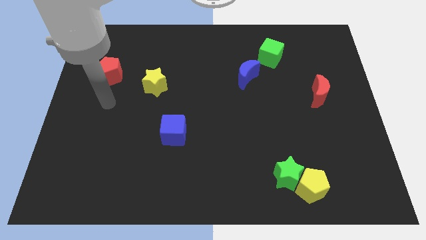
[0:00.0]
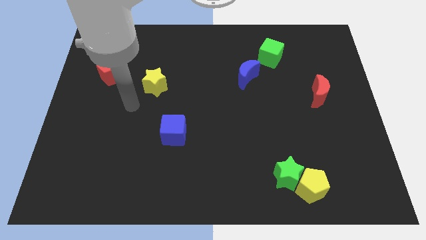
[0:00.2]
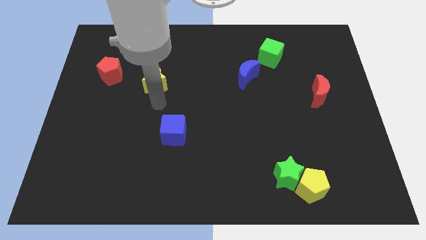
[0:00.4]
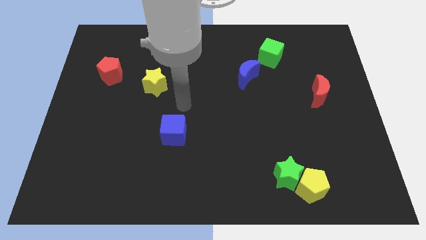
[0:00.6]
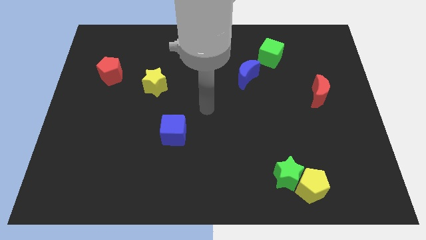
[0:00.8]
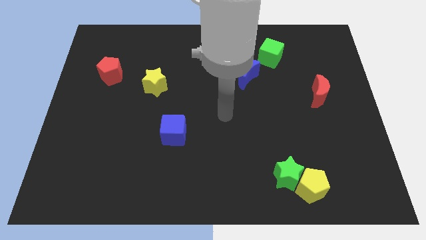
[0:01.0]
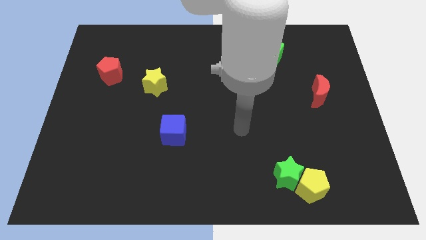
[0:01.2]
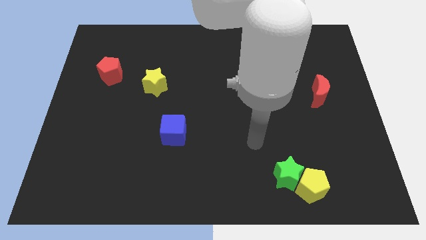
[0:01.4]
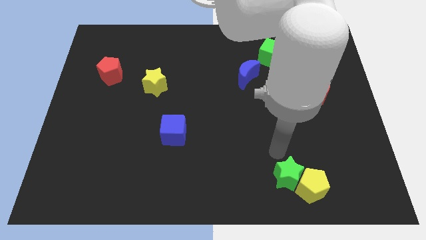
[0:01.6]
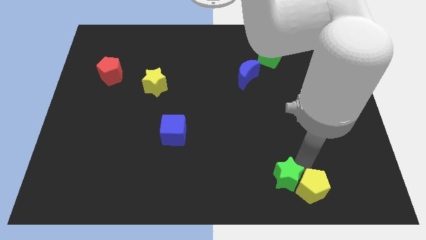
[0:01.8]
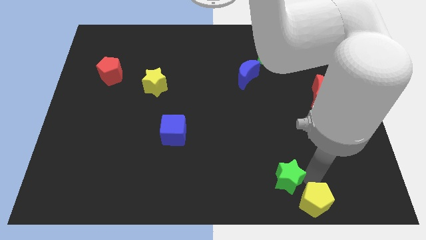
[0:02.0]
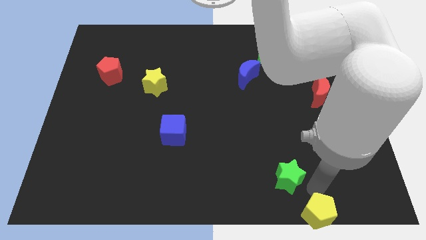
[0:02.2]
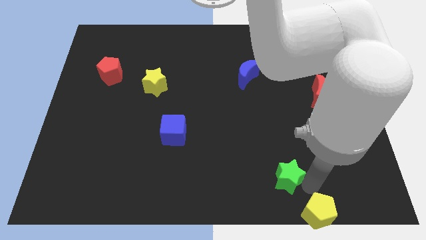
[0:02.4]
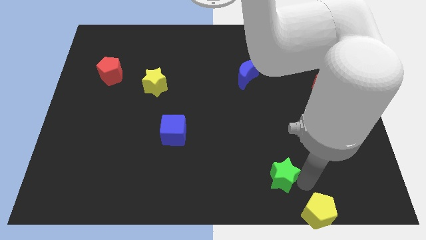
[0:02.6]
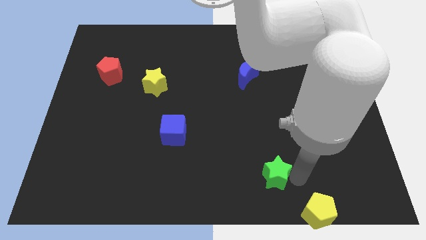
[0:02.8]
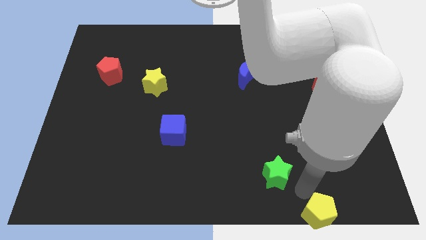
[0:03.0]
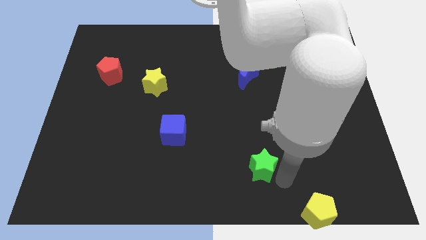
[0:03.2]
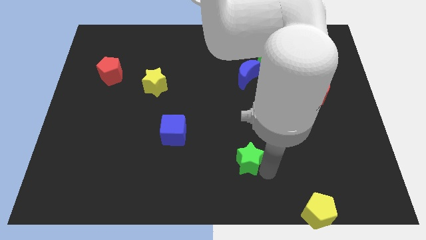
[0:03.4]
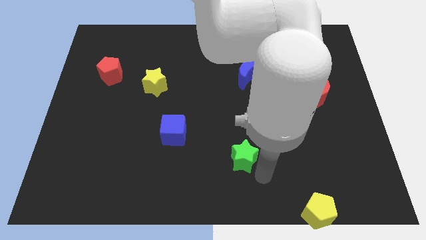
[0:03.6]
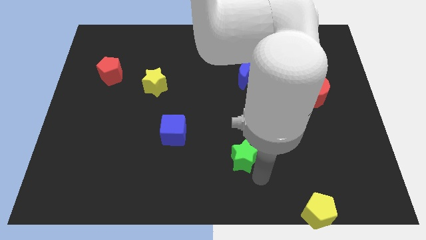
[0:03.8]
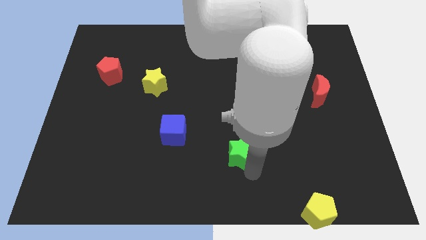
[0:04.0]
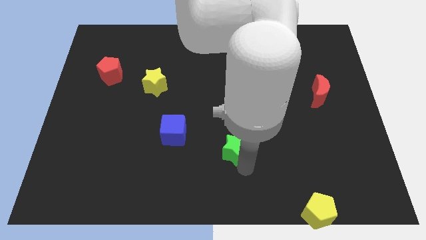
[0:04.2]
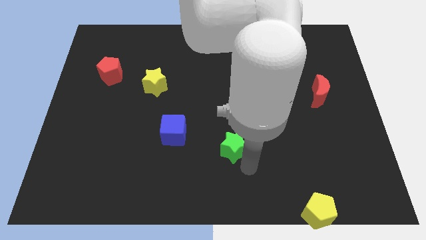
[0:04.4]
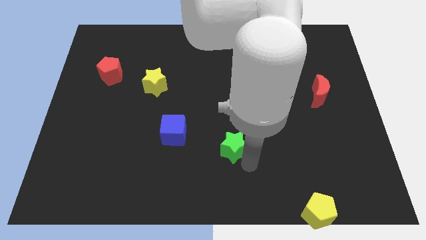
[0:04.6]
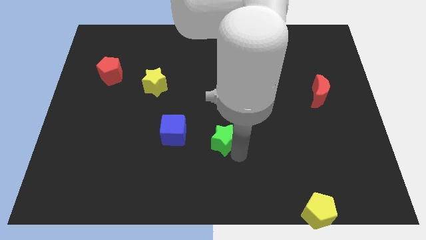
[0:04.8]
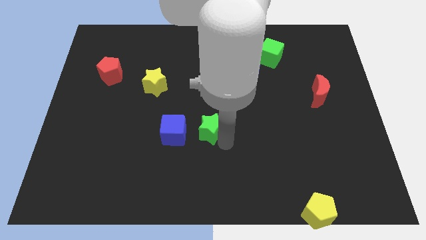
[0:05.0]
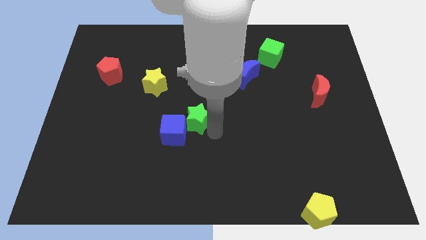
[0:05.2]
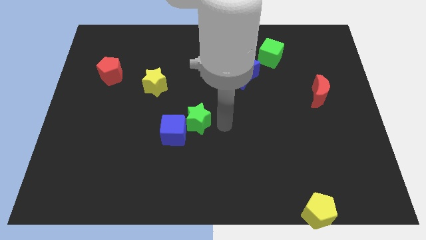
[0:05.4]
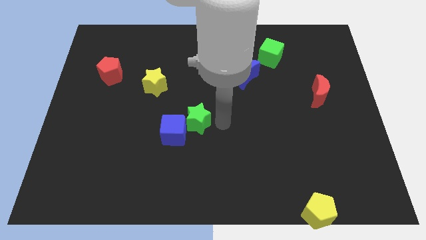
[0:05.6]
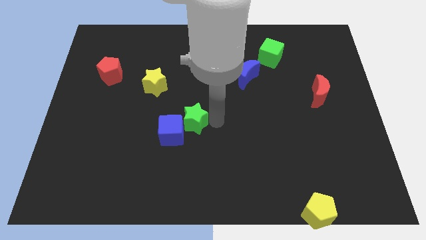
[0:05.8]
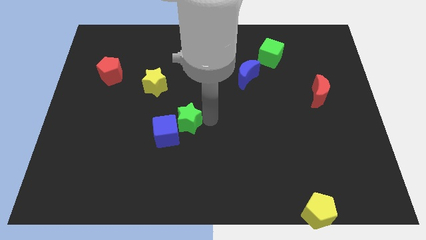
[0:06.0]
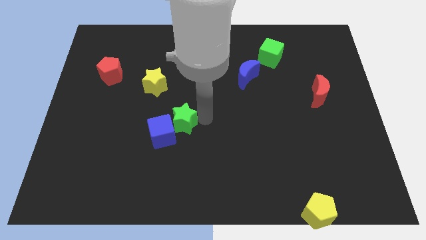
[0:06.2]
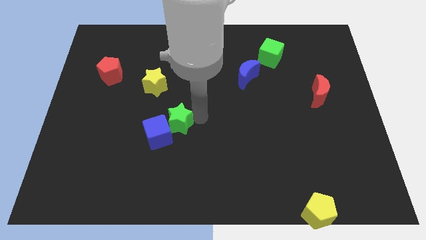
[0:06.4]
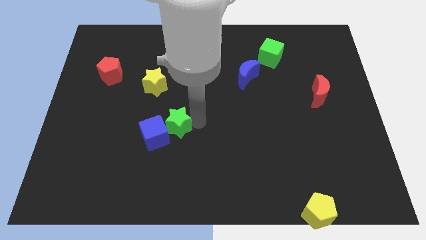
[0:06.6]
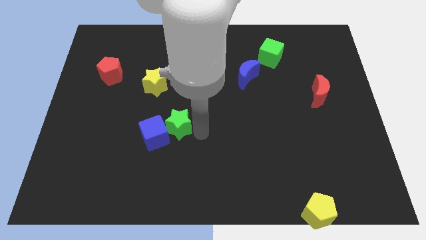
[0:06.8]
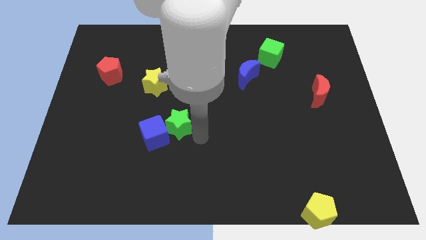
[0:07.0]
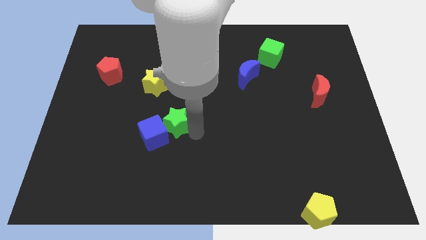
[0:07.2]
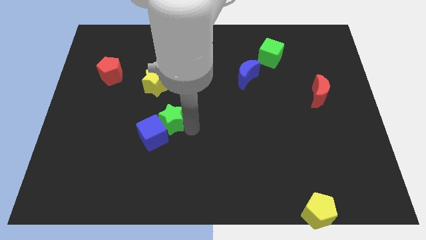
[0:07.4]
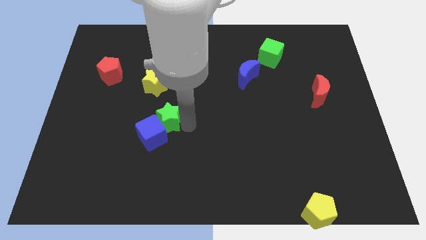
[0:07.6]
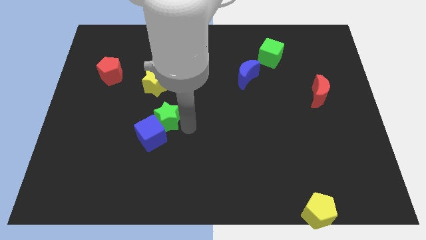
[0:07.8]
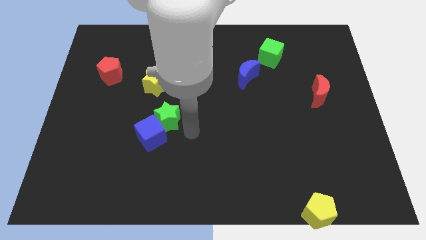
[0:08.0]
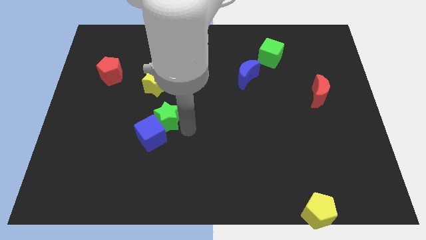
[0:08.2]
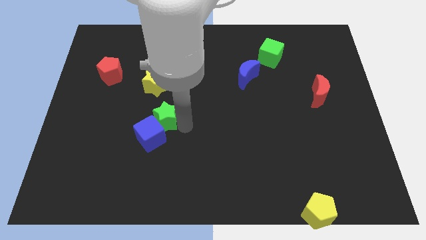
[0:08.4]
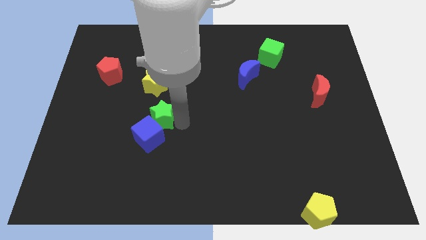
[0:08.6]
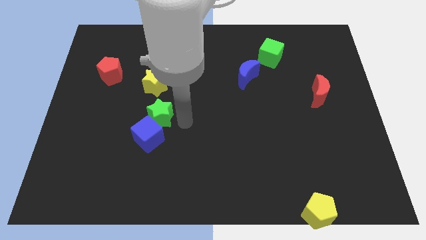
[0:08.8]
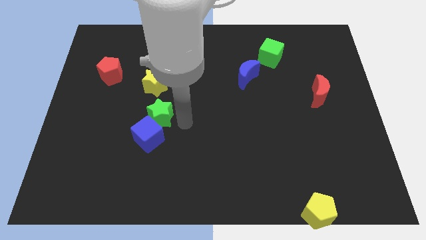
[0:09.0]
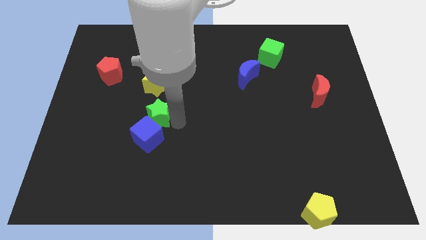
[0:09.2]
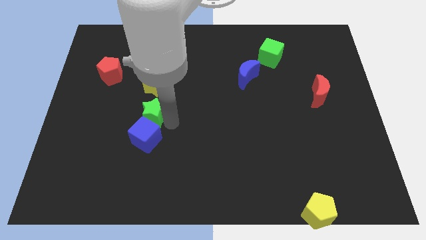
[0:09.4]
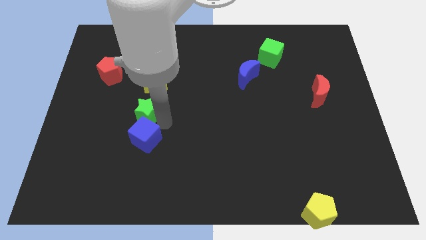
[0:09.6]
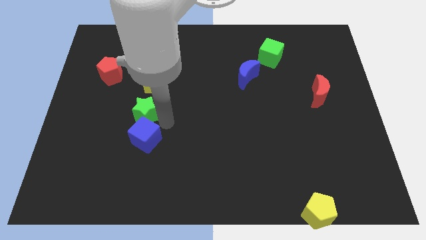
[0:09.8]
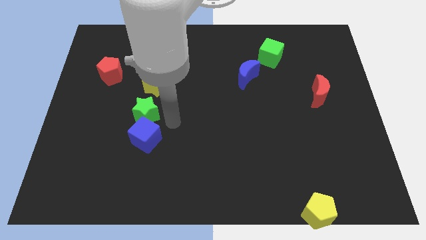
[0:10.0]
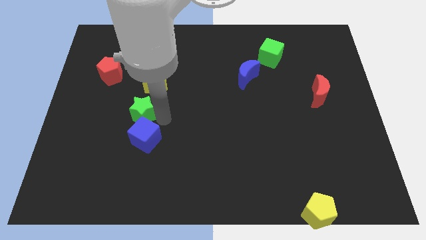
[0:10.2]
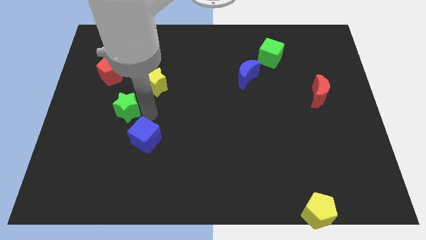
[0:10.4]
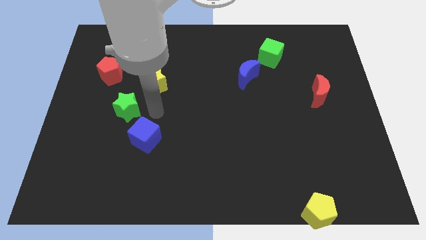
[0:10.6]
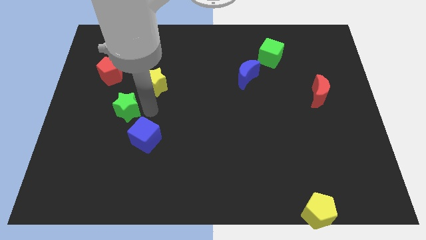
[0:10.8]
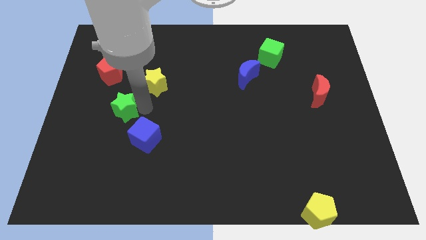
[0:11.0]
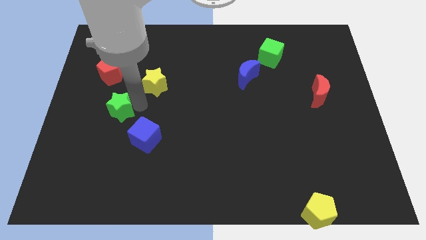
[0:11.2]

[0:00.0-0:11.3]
move the green star to the bottom side of the red pentagon
